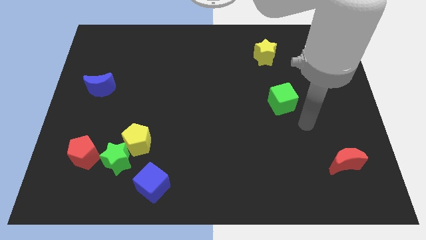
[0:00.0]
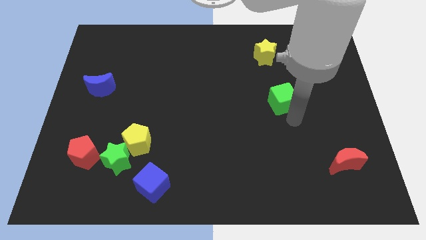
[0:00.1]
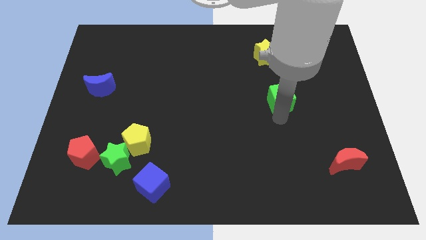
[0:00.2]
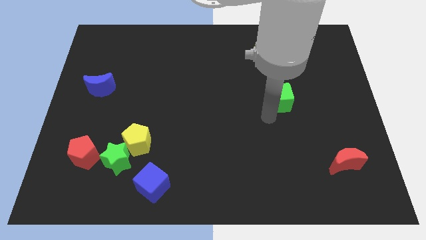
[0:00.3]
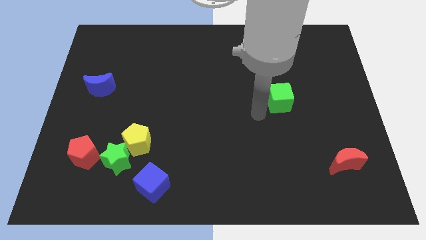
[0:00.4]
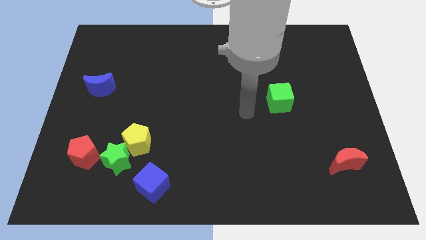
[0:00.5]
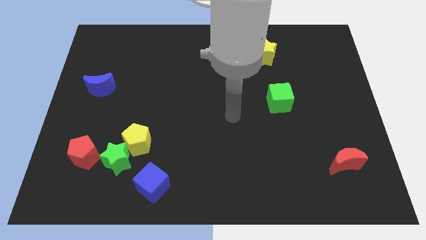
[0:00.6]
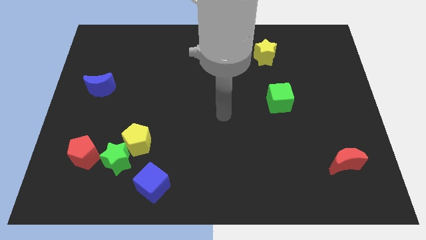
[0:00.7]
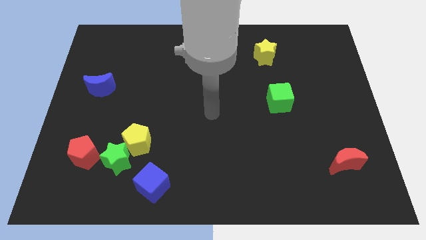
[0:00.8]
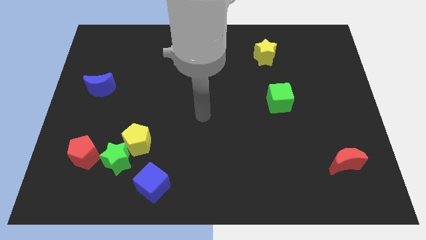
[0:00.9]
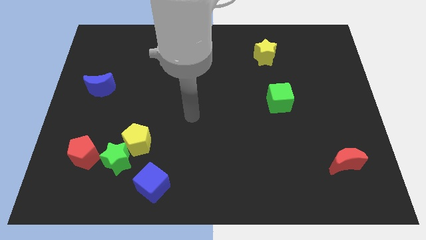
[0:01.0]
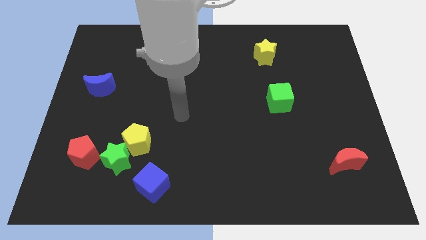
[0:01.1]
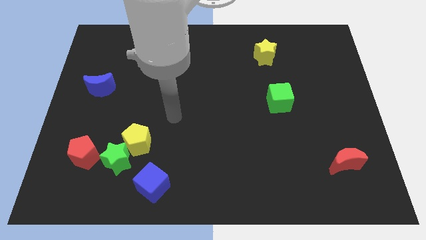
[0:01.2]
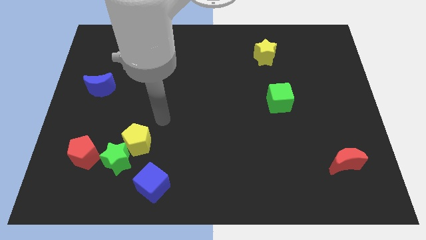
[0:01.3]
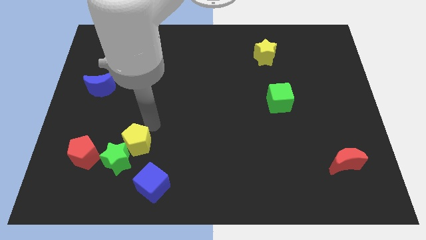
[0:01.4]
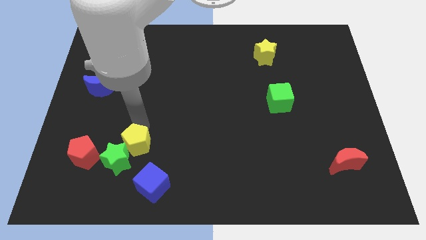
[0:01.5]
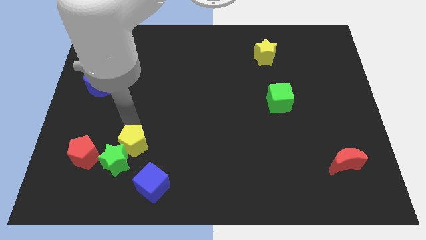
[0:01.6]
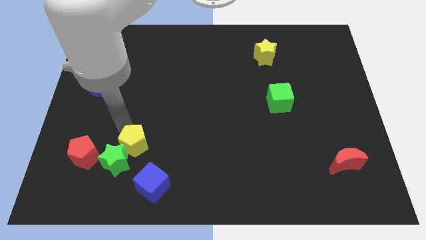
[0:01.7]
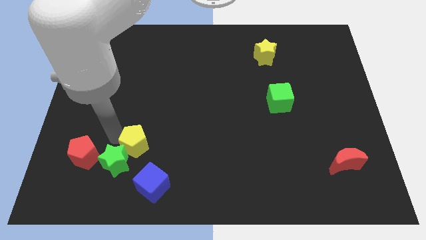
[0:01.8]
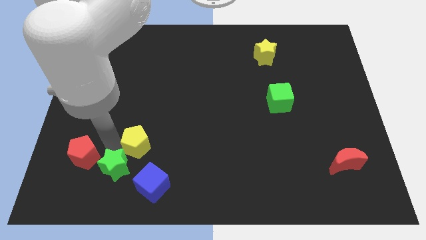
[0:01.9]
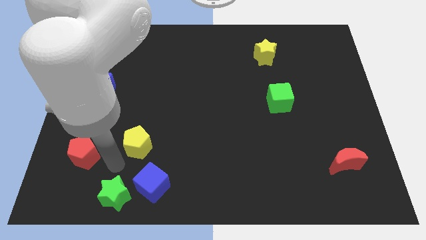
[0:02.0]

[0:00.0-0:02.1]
separate the yellow pentagon from the green star

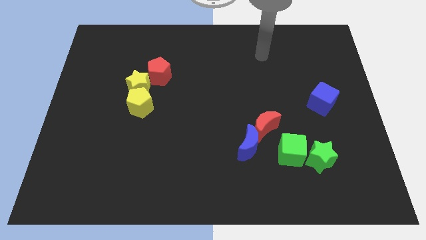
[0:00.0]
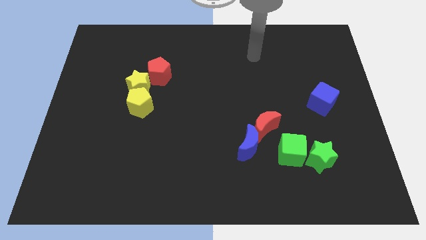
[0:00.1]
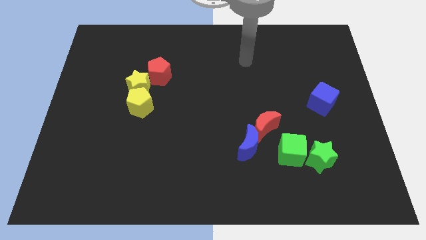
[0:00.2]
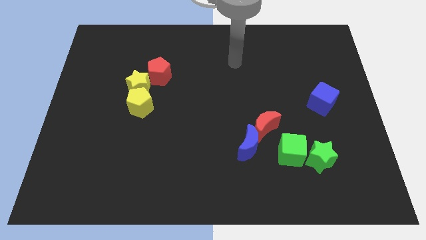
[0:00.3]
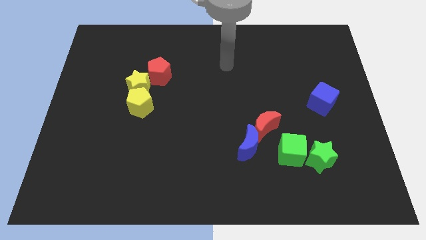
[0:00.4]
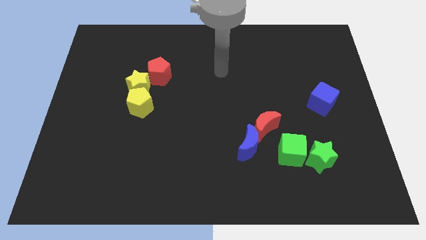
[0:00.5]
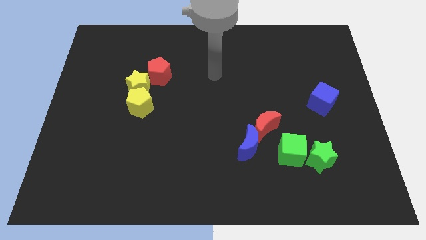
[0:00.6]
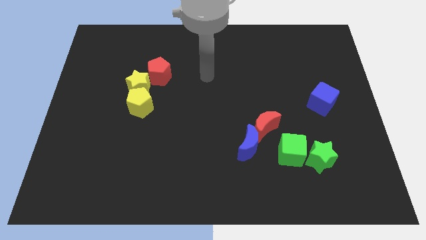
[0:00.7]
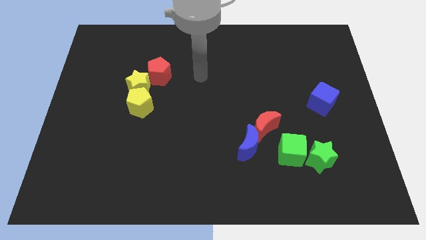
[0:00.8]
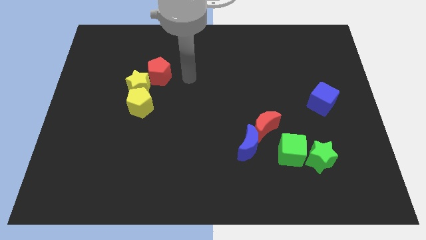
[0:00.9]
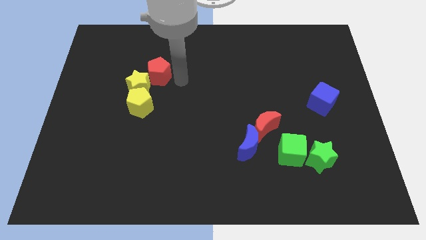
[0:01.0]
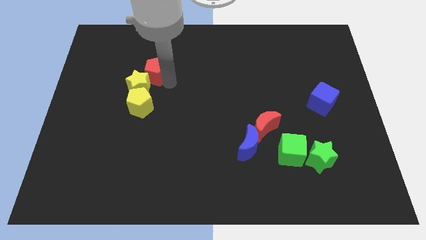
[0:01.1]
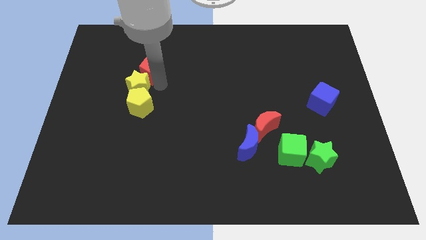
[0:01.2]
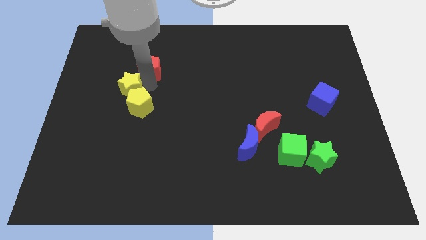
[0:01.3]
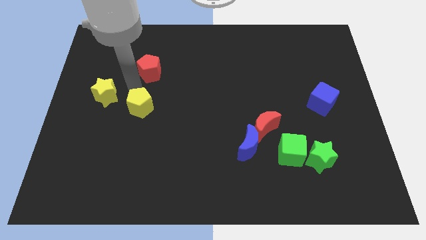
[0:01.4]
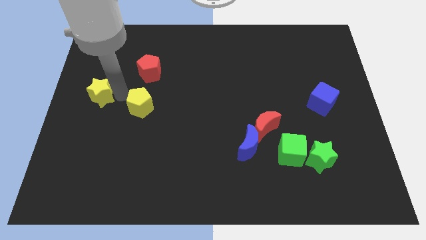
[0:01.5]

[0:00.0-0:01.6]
separate the yellow pentagon from the yellow star

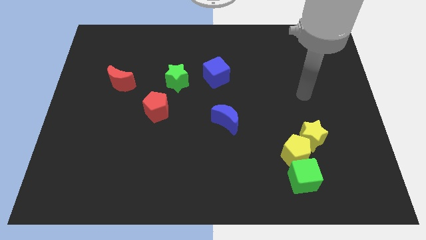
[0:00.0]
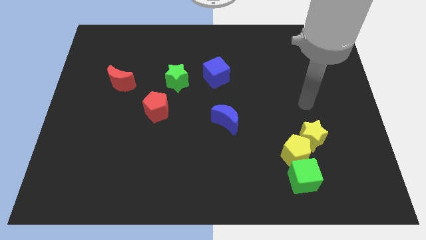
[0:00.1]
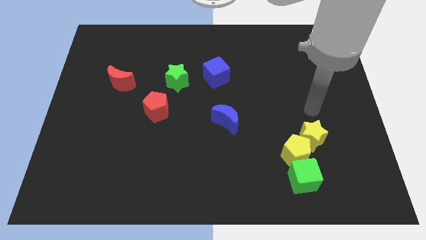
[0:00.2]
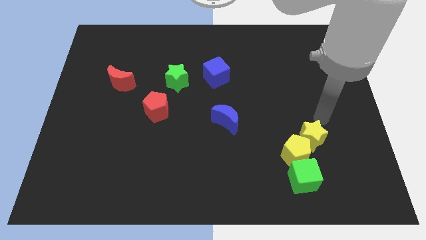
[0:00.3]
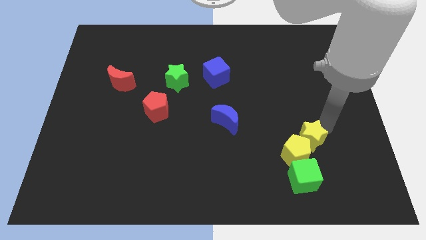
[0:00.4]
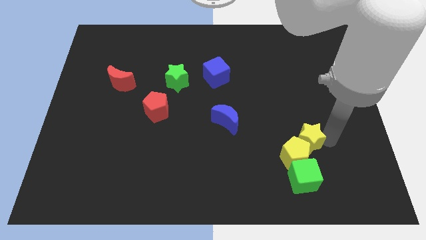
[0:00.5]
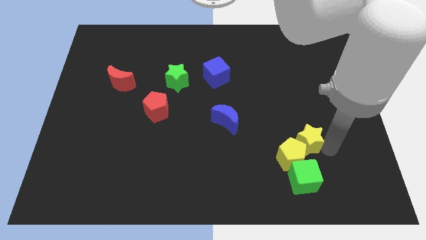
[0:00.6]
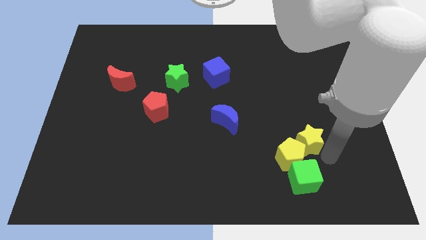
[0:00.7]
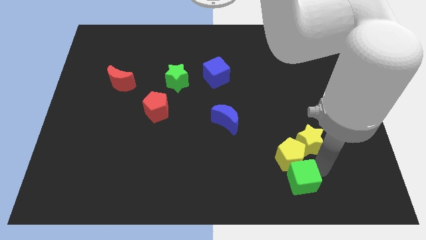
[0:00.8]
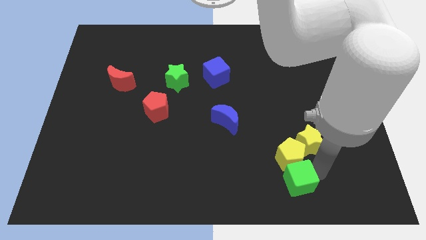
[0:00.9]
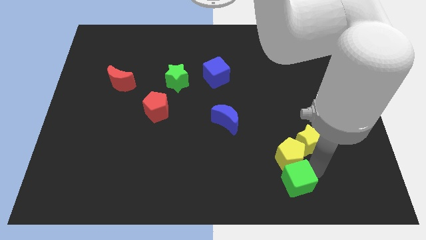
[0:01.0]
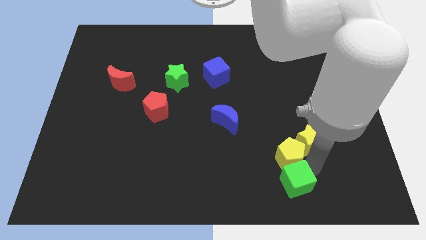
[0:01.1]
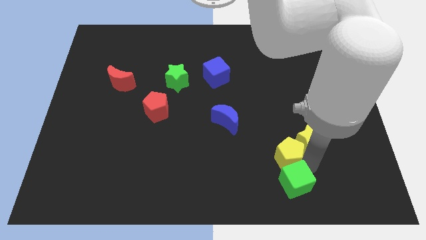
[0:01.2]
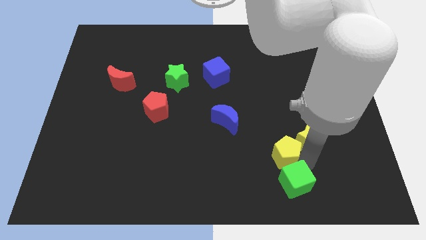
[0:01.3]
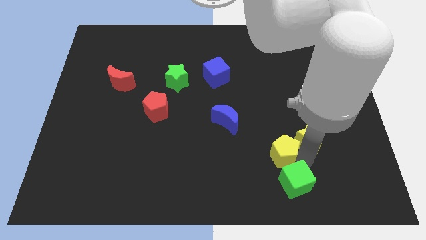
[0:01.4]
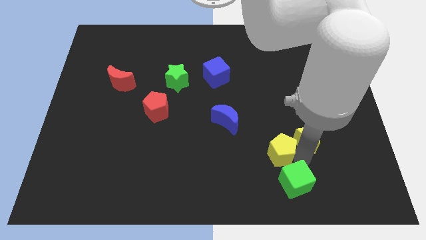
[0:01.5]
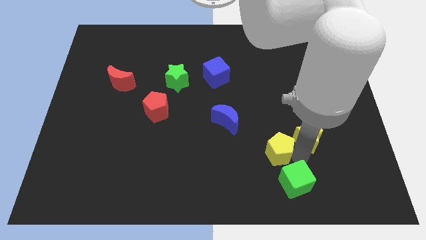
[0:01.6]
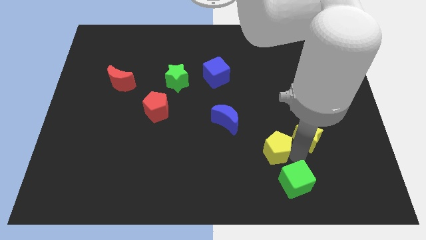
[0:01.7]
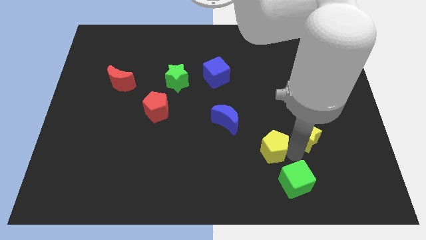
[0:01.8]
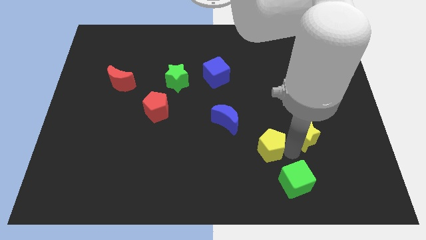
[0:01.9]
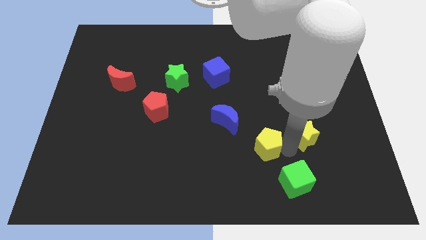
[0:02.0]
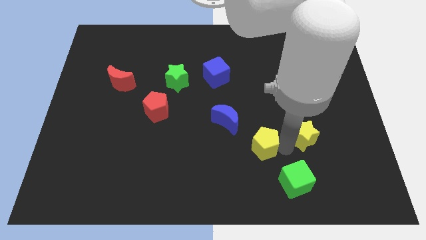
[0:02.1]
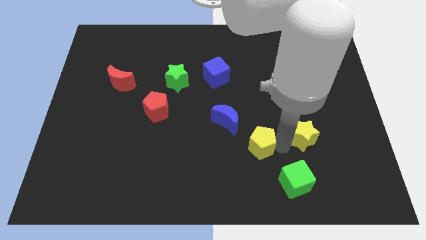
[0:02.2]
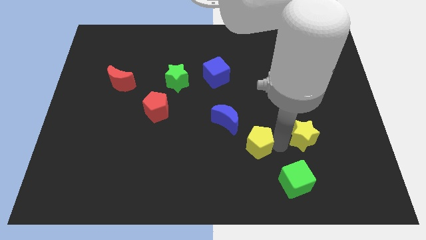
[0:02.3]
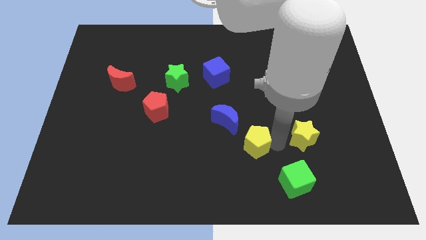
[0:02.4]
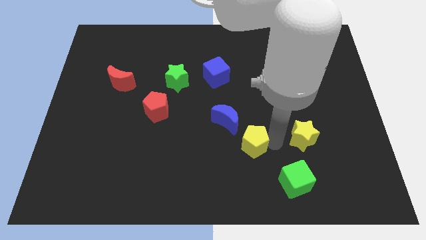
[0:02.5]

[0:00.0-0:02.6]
move the yellow pentagon away from the yellow star and green cube

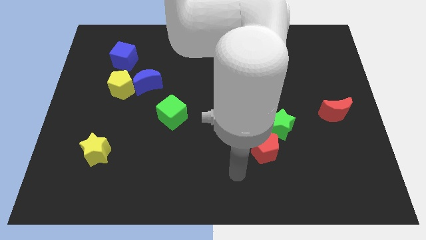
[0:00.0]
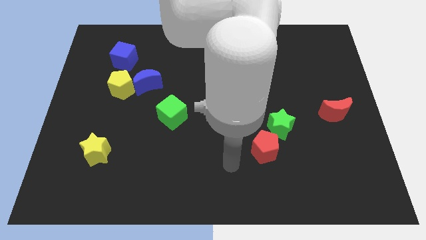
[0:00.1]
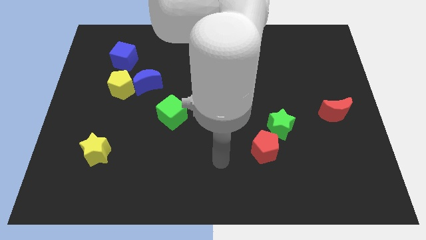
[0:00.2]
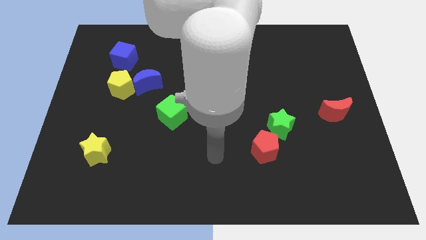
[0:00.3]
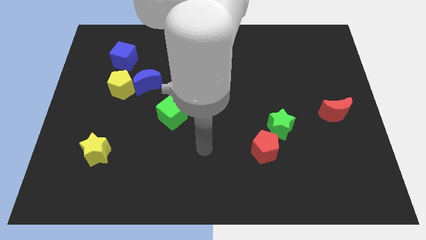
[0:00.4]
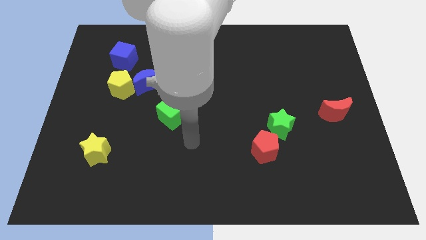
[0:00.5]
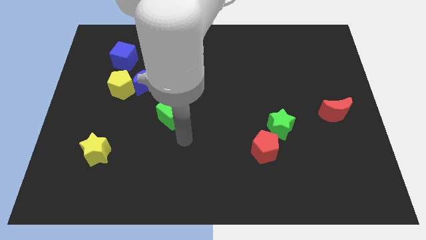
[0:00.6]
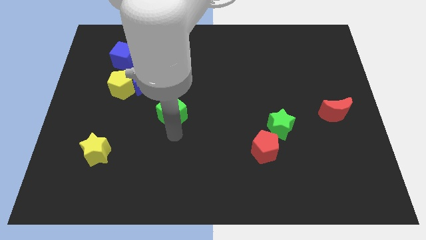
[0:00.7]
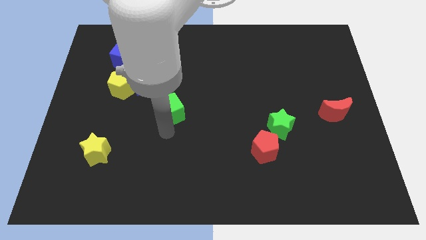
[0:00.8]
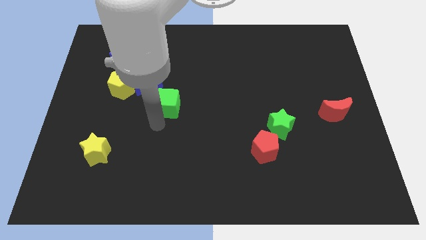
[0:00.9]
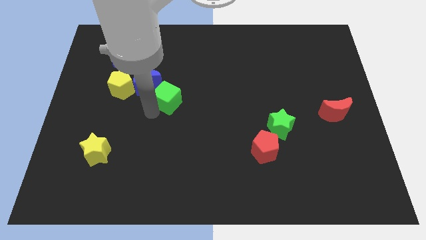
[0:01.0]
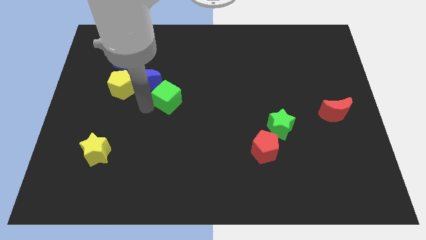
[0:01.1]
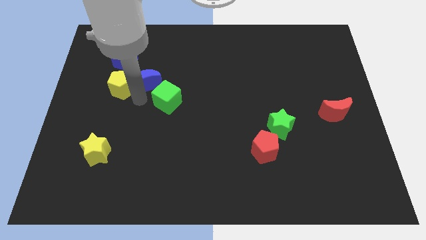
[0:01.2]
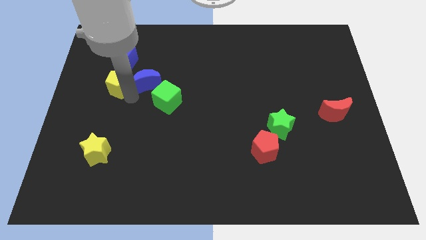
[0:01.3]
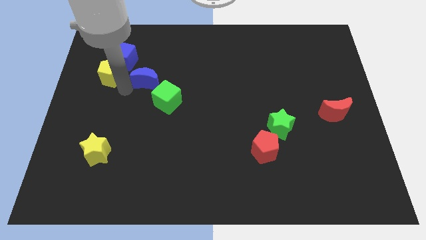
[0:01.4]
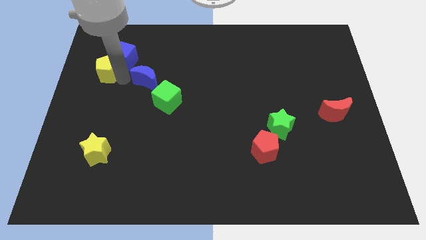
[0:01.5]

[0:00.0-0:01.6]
move the blue moon away from the yellow pentagon

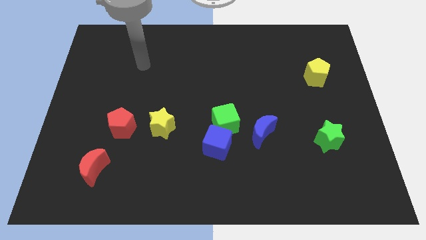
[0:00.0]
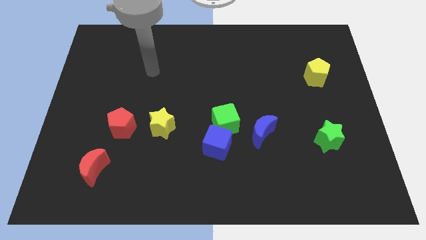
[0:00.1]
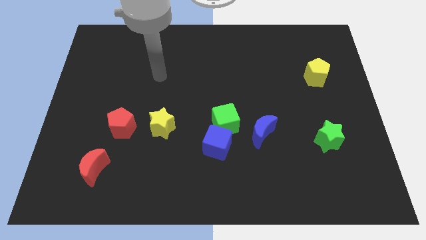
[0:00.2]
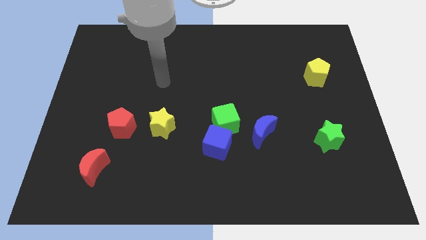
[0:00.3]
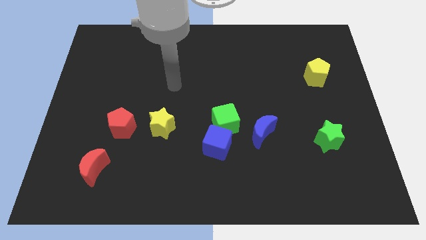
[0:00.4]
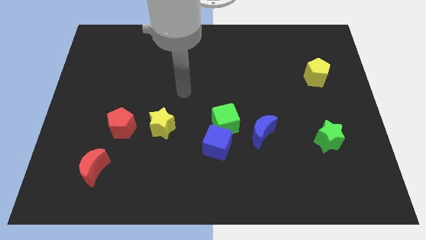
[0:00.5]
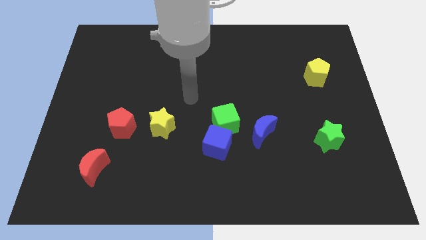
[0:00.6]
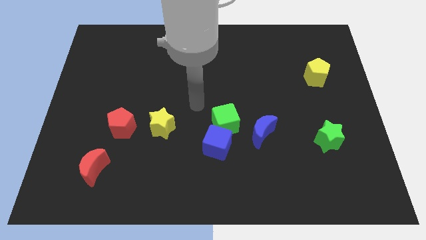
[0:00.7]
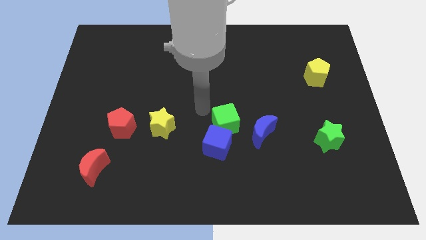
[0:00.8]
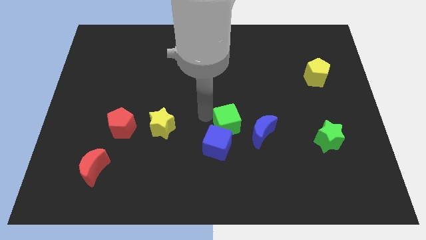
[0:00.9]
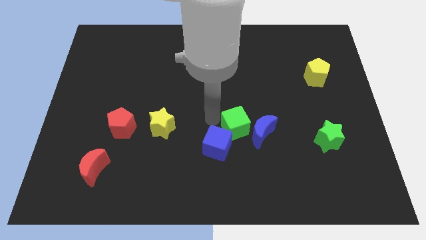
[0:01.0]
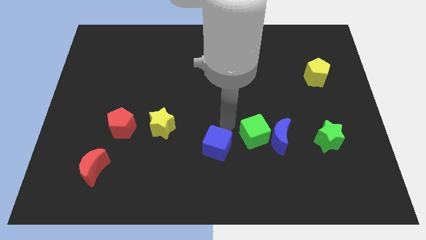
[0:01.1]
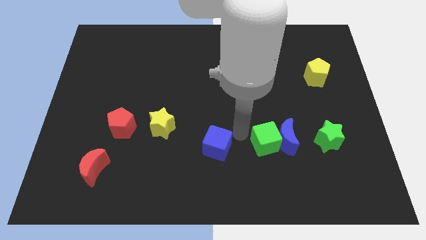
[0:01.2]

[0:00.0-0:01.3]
pull the blue cube apart from the green cube
